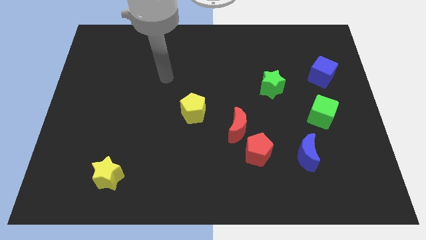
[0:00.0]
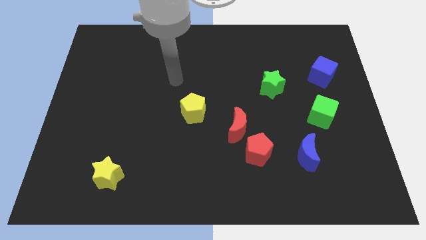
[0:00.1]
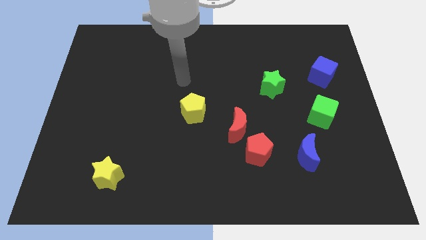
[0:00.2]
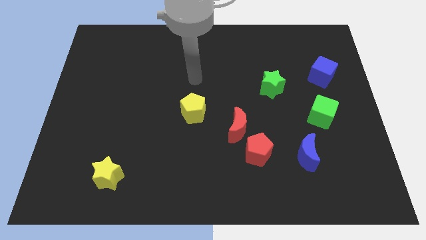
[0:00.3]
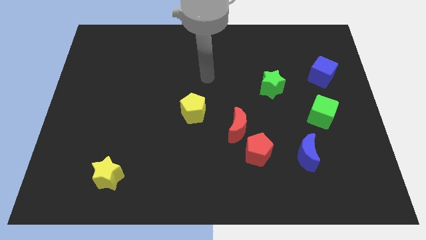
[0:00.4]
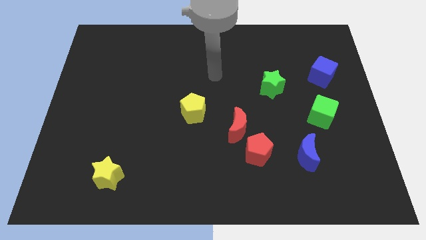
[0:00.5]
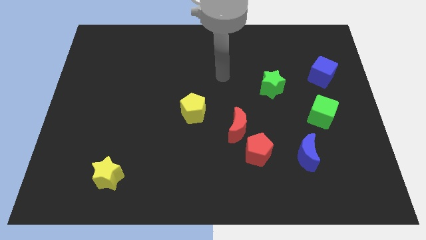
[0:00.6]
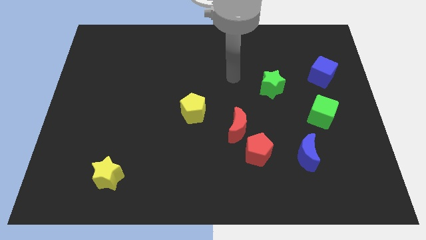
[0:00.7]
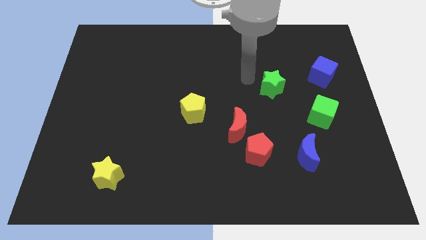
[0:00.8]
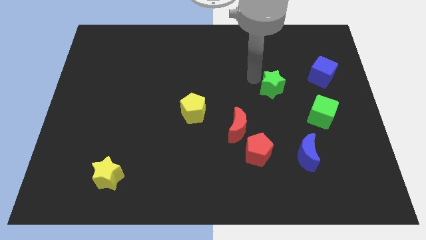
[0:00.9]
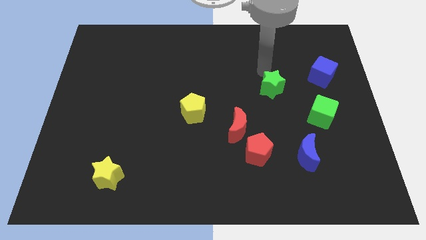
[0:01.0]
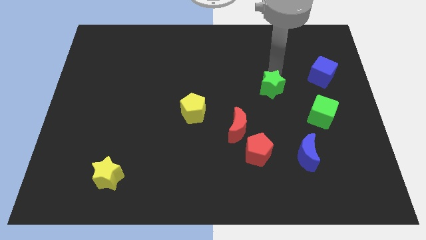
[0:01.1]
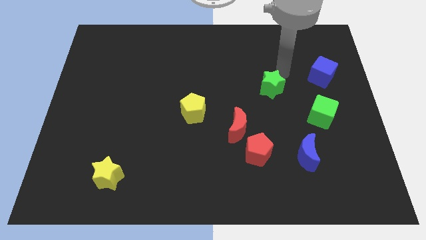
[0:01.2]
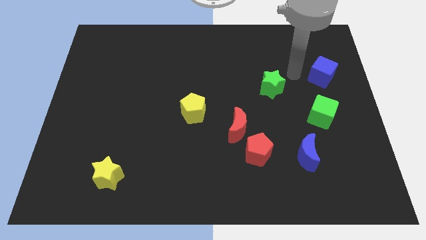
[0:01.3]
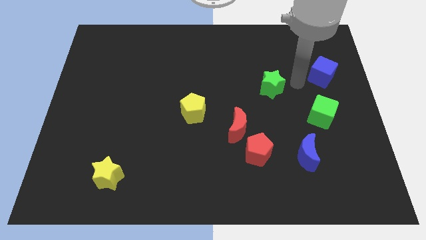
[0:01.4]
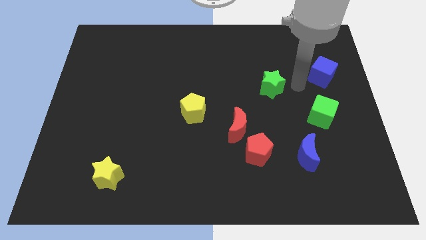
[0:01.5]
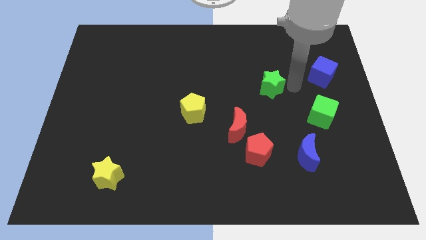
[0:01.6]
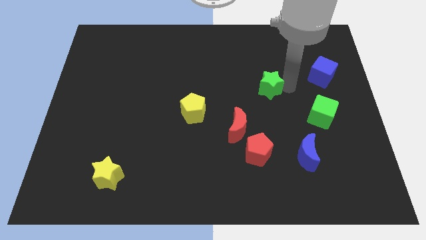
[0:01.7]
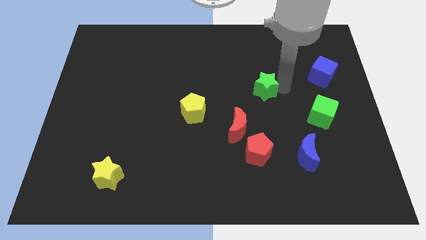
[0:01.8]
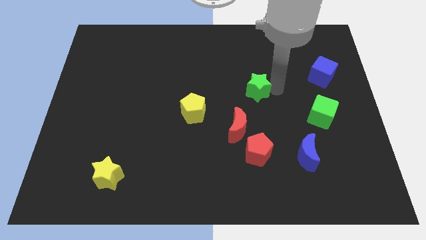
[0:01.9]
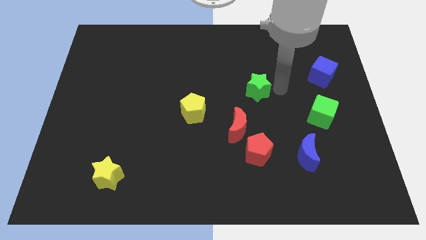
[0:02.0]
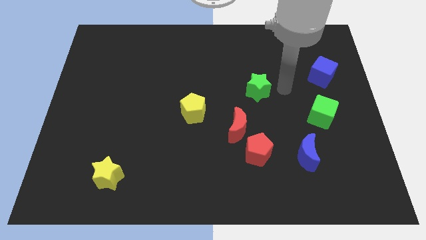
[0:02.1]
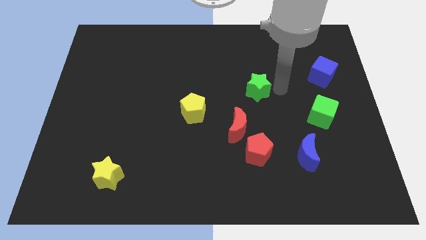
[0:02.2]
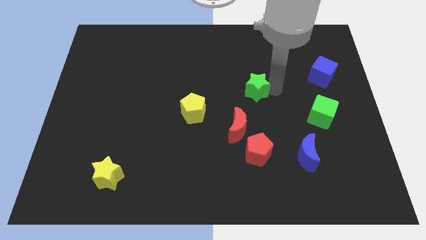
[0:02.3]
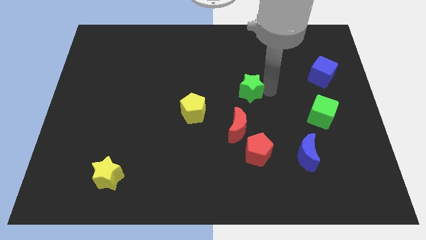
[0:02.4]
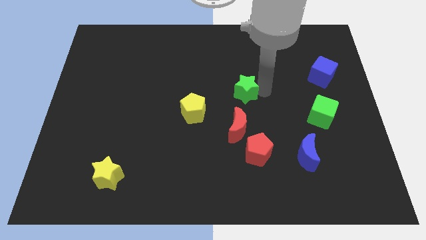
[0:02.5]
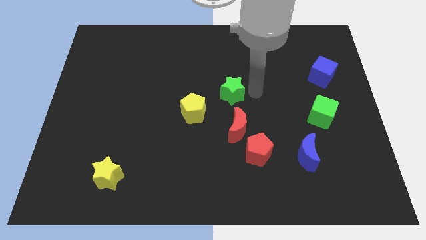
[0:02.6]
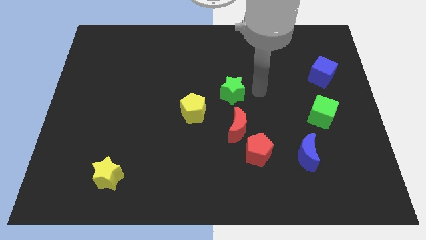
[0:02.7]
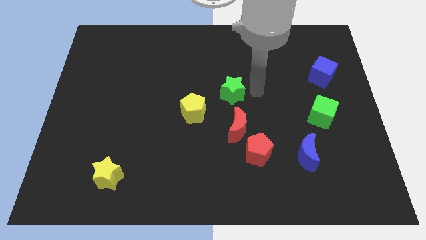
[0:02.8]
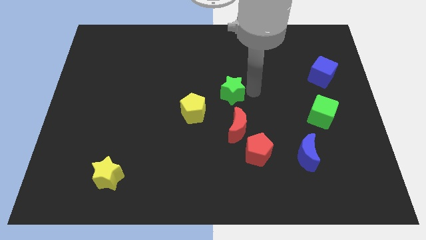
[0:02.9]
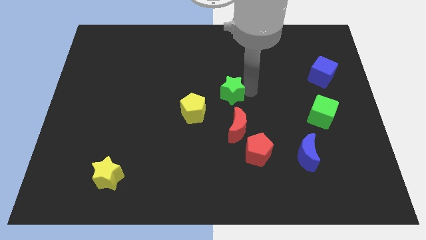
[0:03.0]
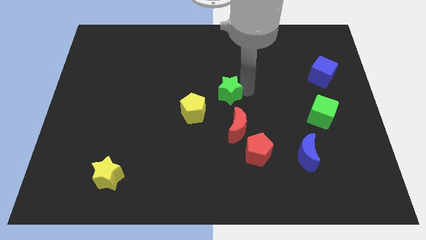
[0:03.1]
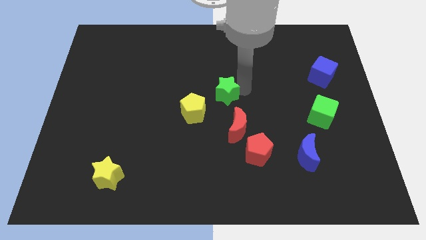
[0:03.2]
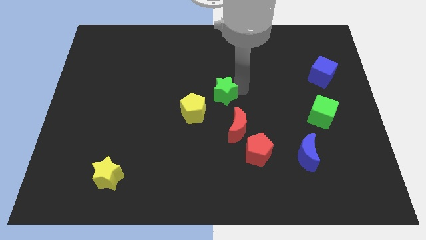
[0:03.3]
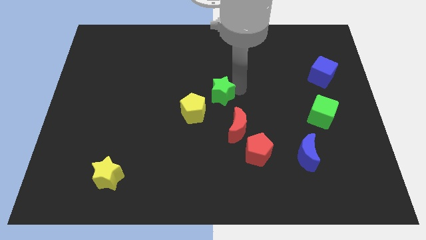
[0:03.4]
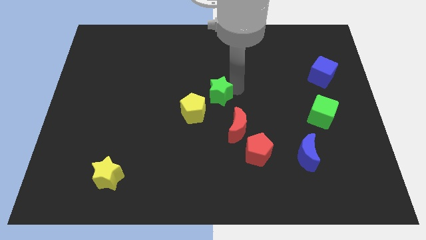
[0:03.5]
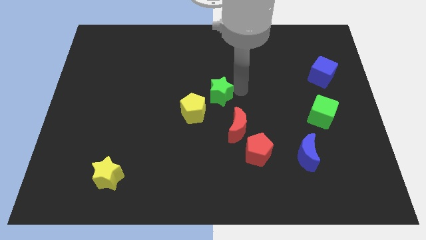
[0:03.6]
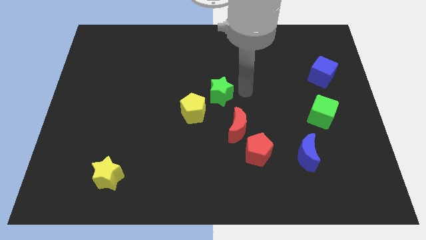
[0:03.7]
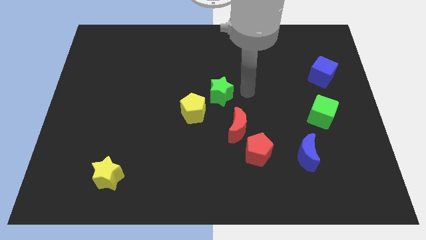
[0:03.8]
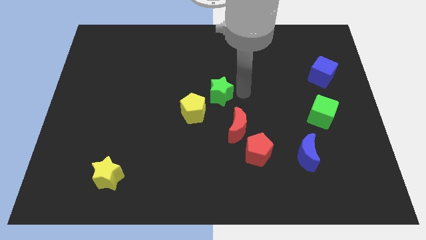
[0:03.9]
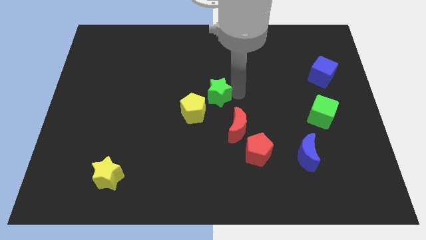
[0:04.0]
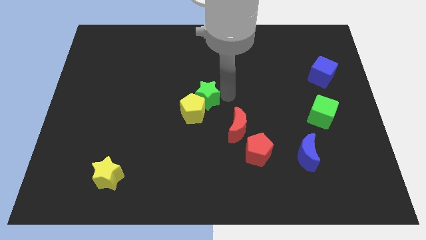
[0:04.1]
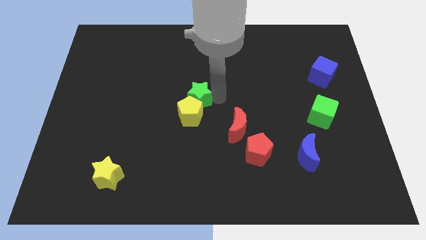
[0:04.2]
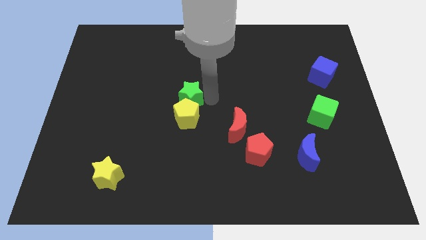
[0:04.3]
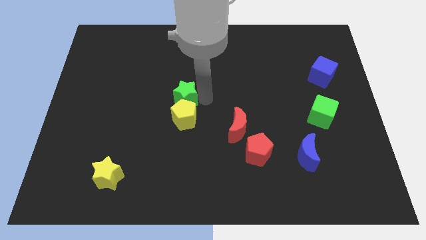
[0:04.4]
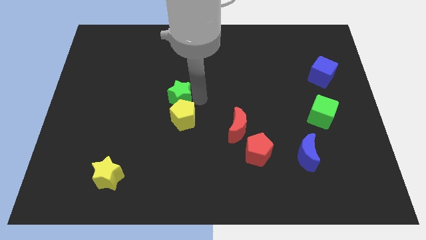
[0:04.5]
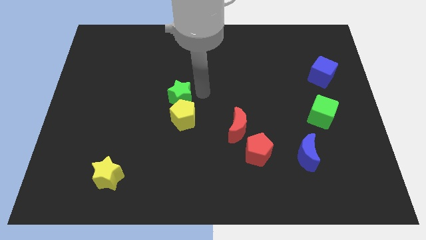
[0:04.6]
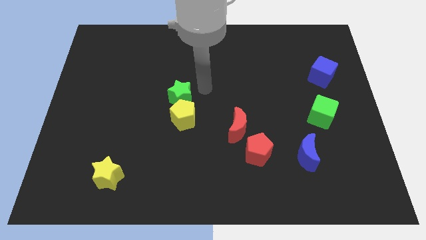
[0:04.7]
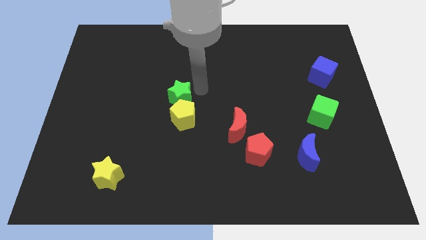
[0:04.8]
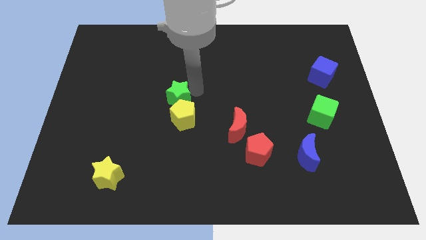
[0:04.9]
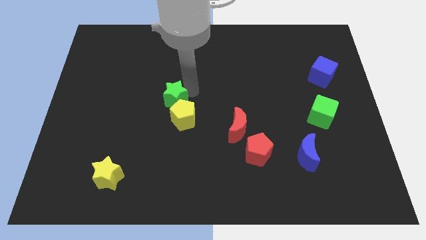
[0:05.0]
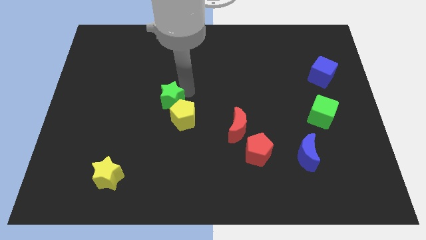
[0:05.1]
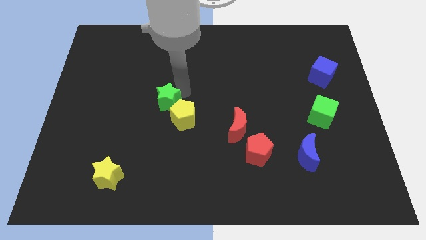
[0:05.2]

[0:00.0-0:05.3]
push the green star to the left of the yellow pentagon

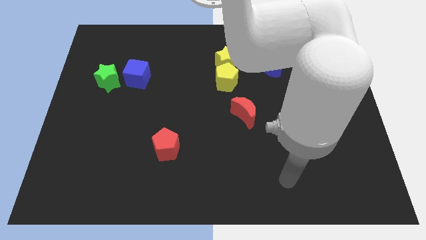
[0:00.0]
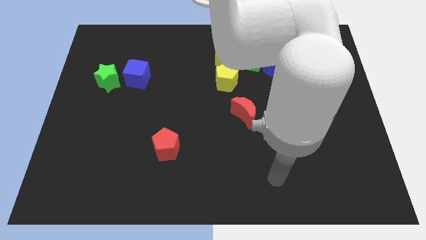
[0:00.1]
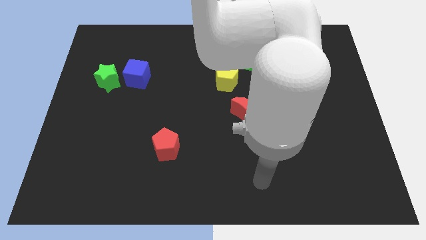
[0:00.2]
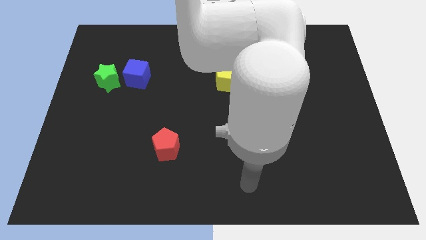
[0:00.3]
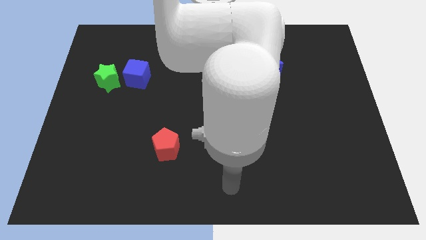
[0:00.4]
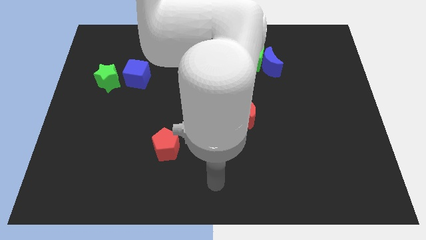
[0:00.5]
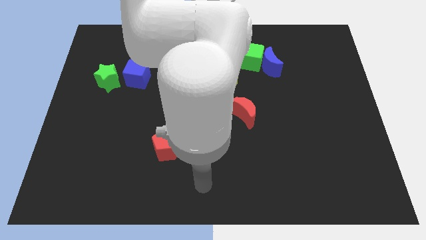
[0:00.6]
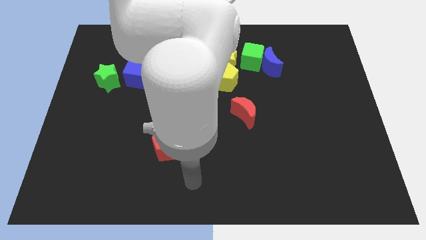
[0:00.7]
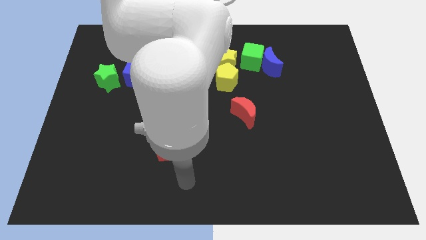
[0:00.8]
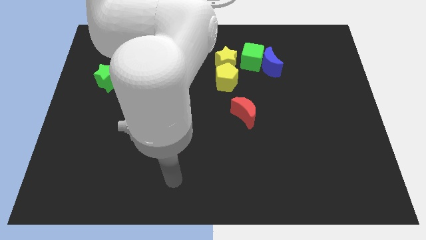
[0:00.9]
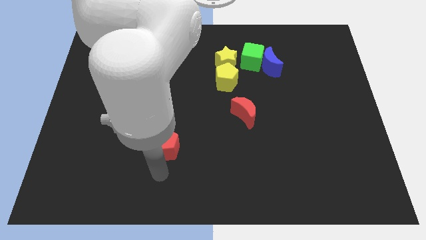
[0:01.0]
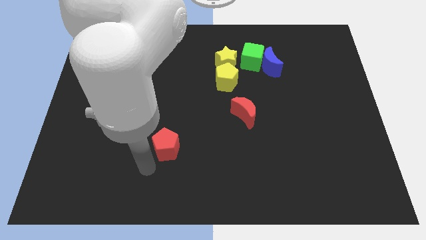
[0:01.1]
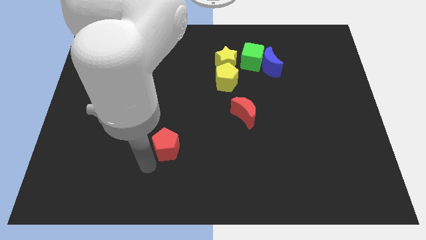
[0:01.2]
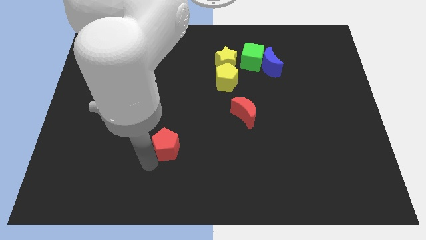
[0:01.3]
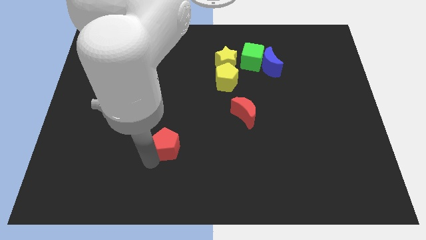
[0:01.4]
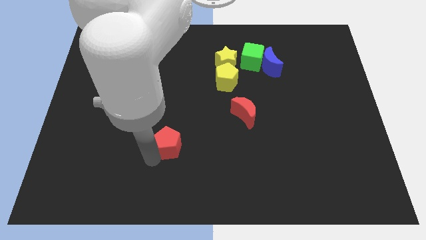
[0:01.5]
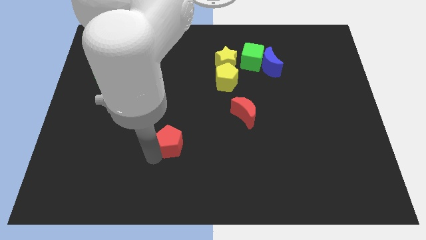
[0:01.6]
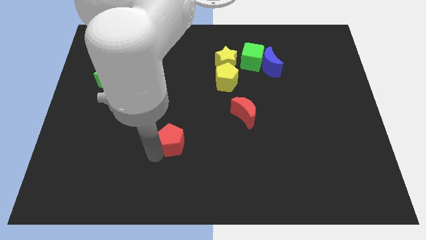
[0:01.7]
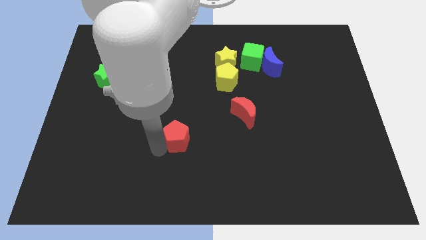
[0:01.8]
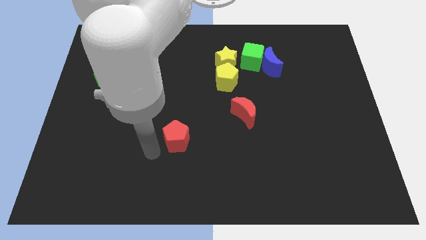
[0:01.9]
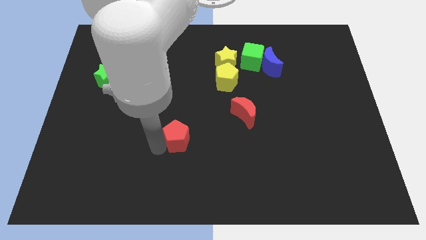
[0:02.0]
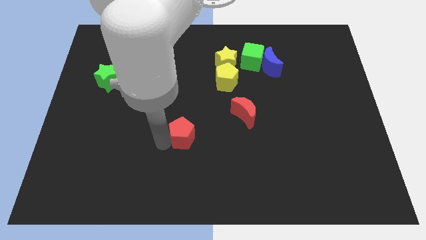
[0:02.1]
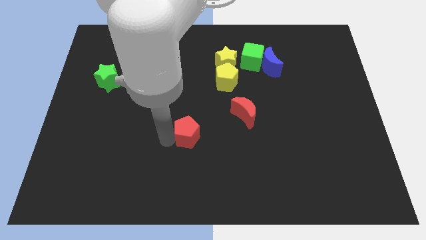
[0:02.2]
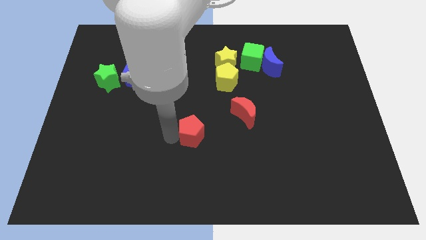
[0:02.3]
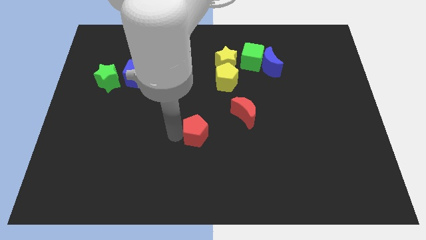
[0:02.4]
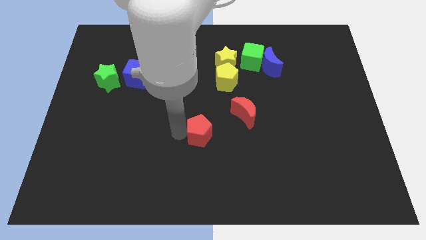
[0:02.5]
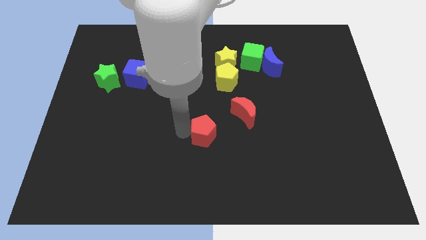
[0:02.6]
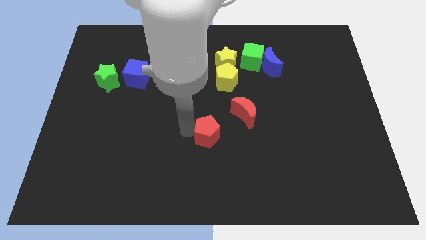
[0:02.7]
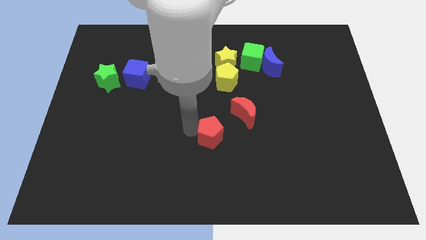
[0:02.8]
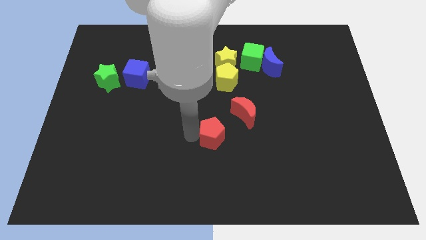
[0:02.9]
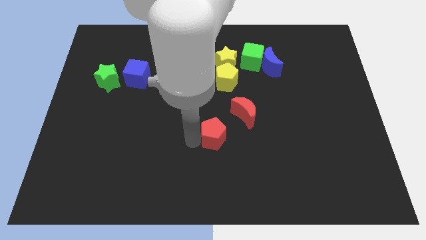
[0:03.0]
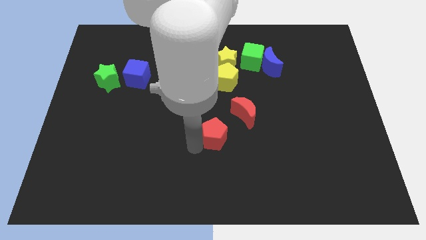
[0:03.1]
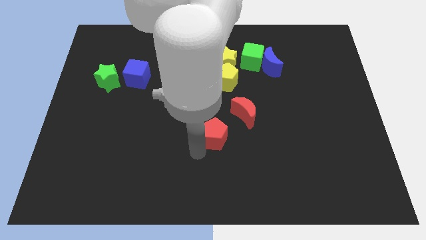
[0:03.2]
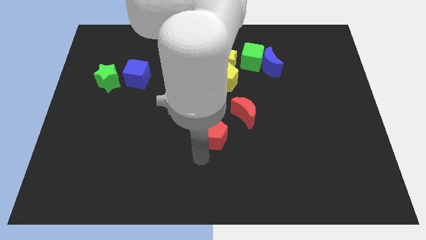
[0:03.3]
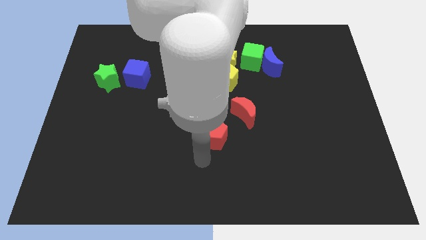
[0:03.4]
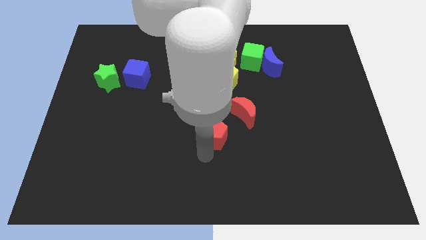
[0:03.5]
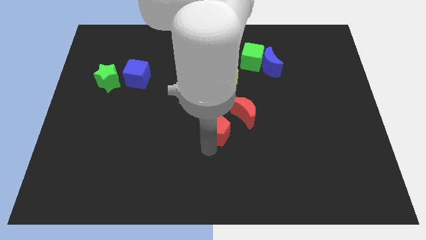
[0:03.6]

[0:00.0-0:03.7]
put the red pentagon to the bottom side of the yellow pentagon
